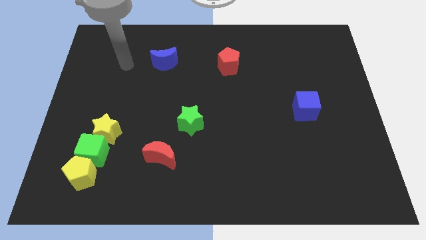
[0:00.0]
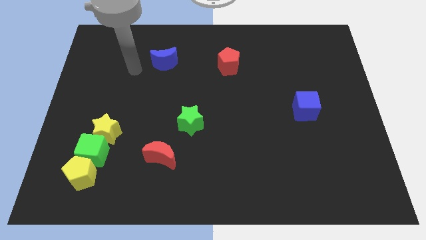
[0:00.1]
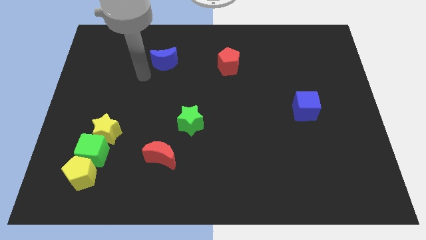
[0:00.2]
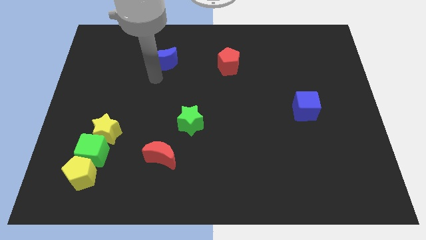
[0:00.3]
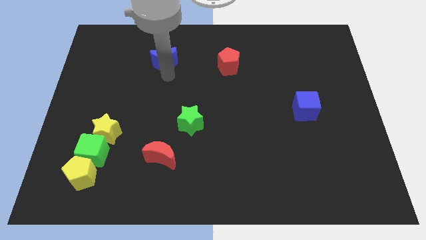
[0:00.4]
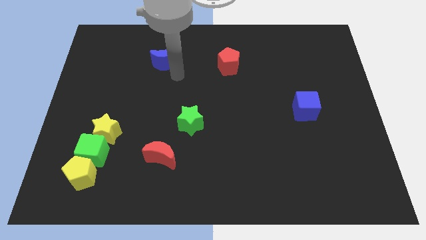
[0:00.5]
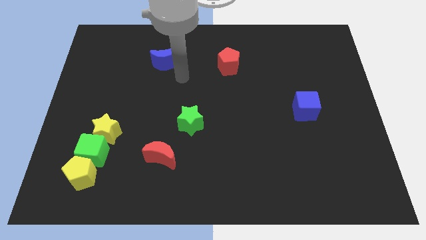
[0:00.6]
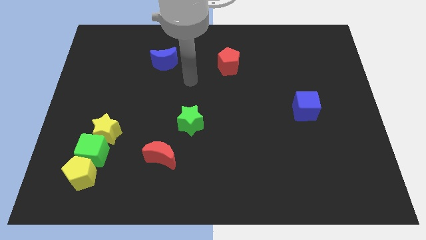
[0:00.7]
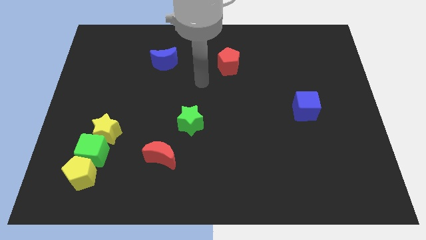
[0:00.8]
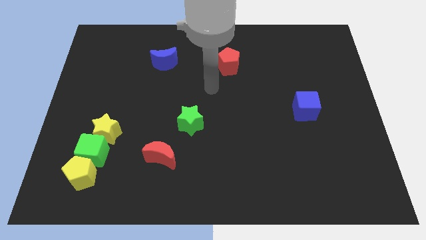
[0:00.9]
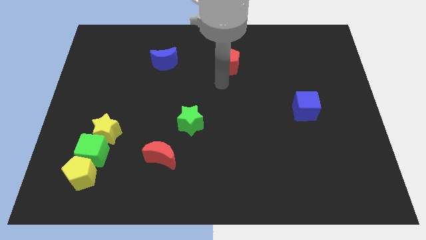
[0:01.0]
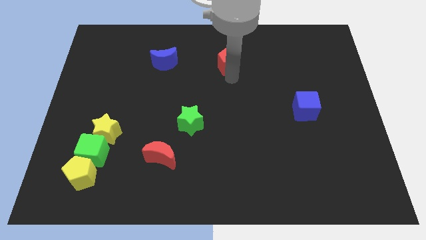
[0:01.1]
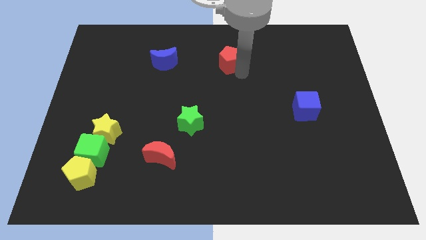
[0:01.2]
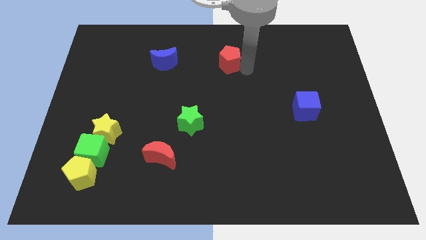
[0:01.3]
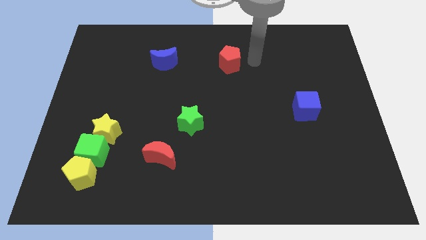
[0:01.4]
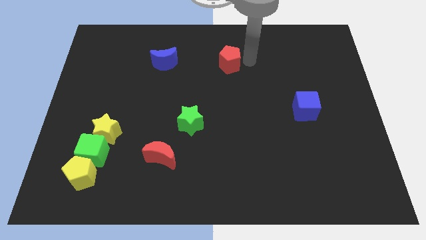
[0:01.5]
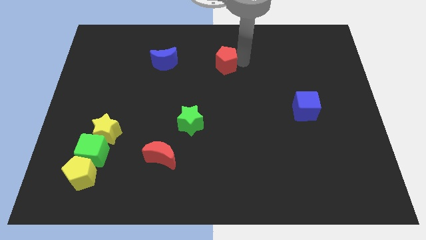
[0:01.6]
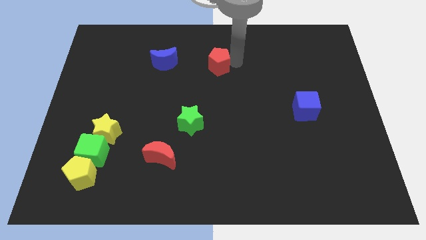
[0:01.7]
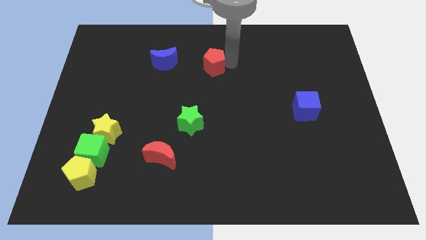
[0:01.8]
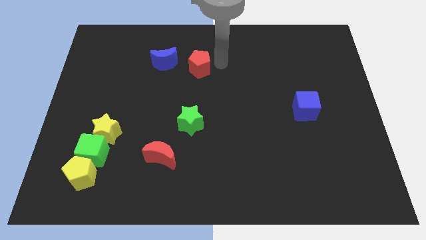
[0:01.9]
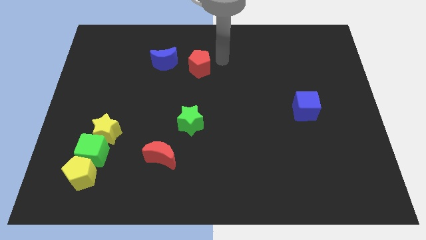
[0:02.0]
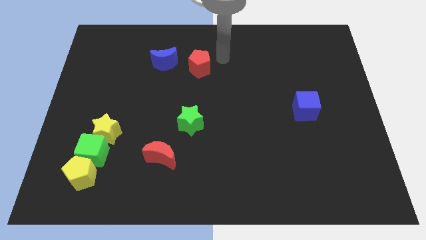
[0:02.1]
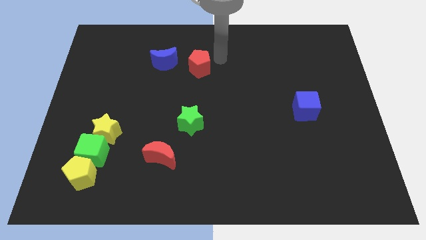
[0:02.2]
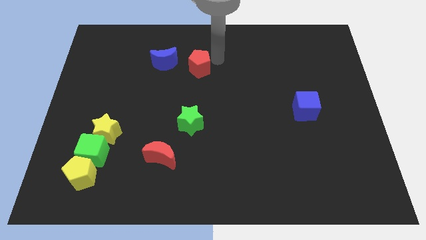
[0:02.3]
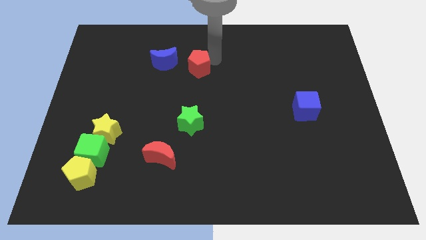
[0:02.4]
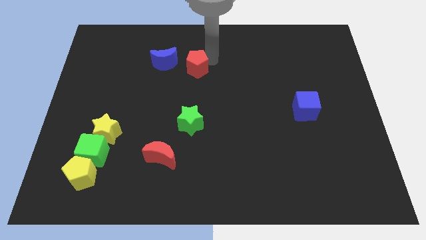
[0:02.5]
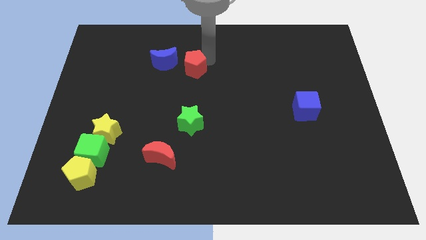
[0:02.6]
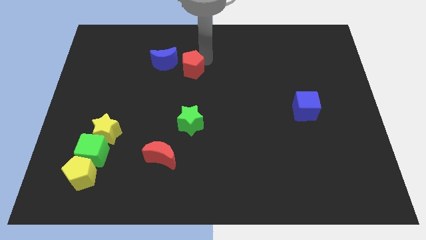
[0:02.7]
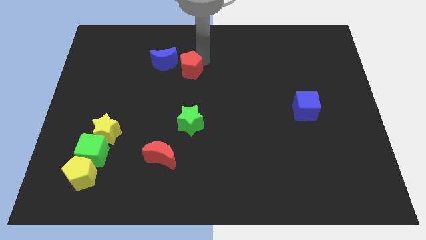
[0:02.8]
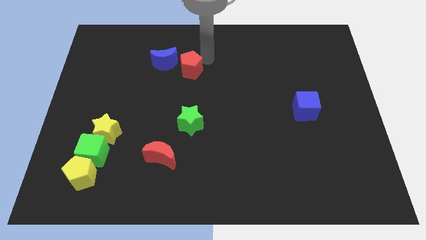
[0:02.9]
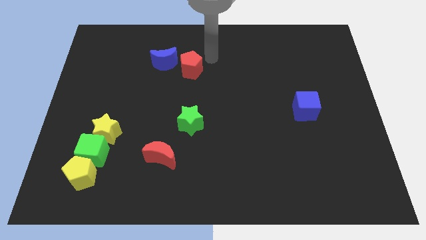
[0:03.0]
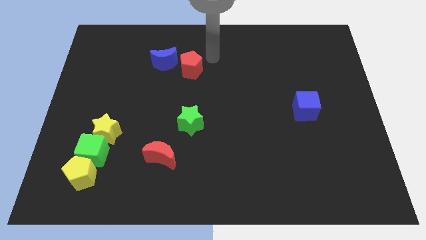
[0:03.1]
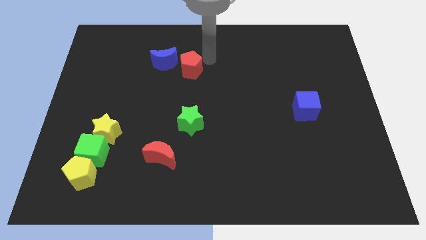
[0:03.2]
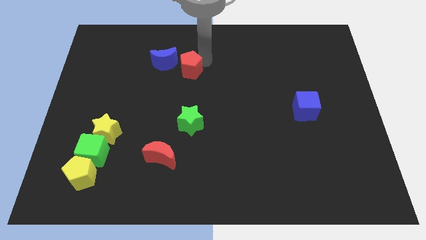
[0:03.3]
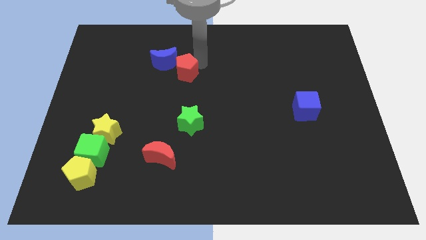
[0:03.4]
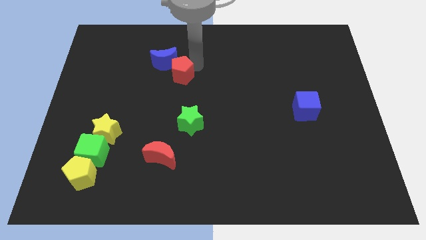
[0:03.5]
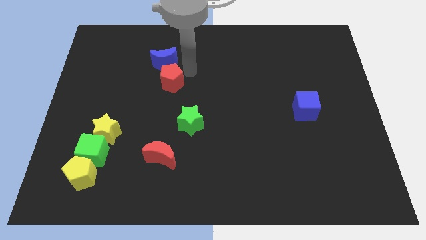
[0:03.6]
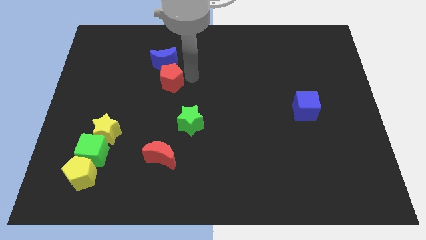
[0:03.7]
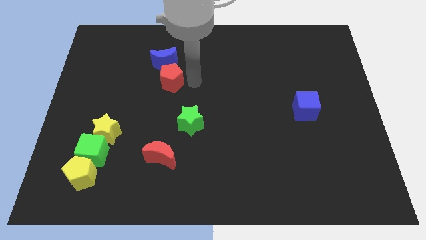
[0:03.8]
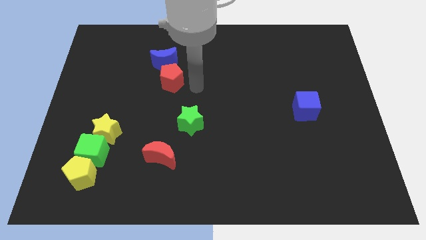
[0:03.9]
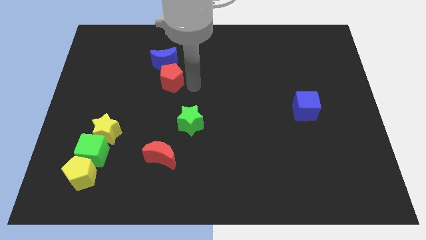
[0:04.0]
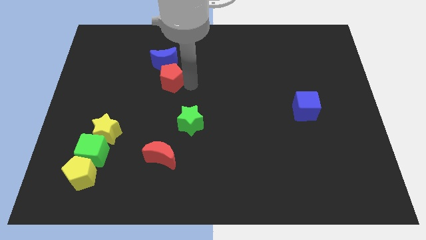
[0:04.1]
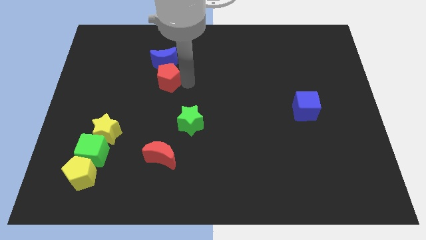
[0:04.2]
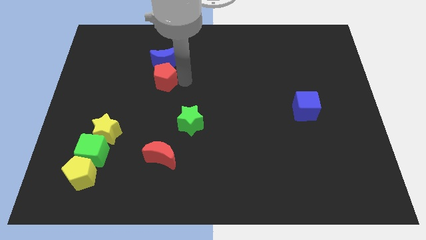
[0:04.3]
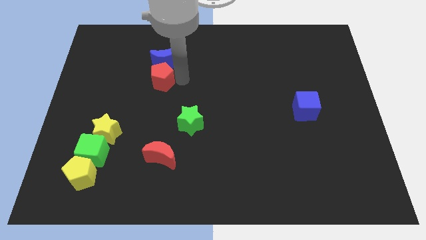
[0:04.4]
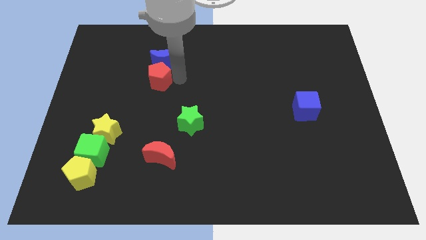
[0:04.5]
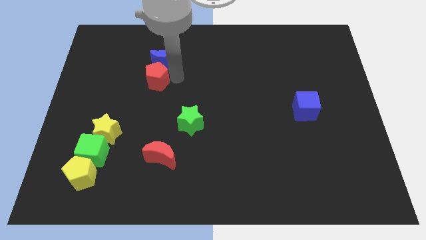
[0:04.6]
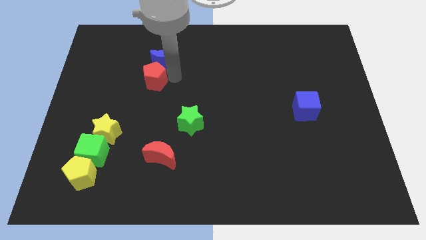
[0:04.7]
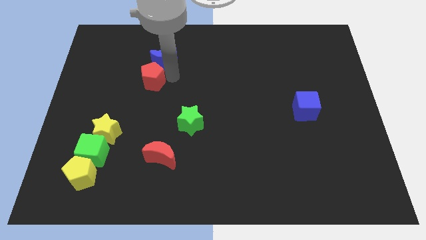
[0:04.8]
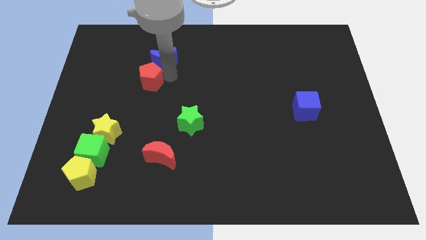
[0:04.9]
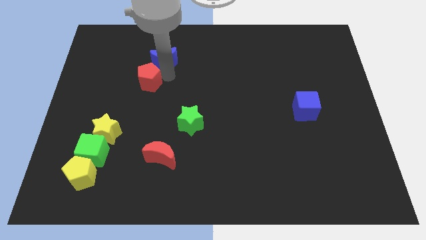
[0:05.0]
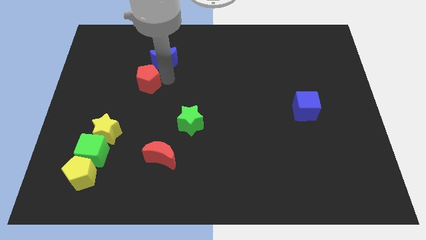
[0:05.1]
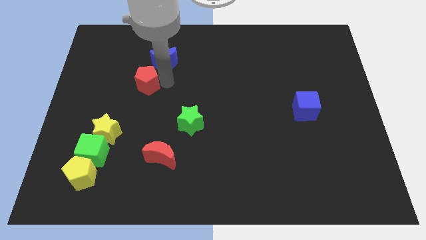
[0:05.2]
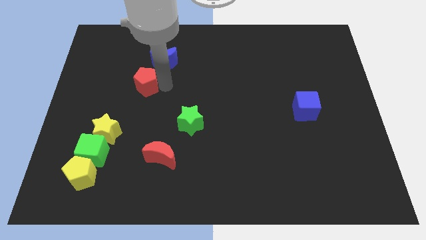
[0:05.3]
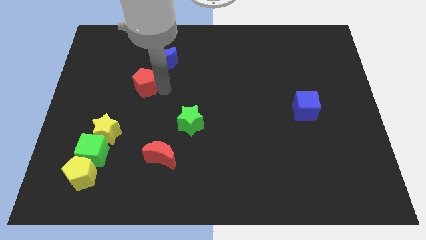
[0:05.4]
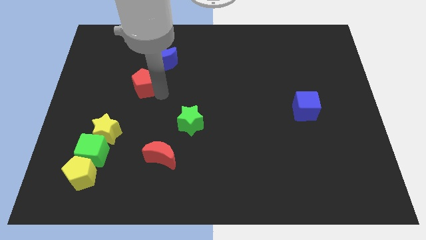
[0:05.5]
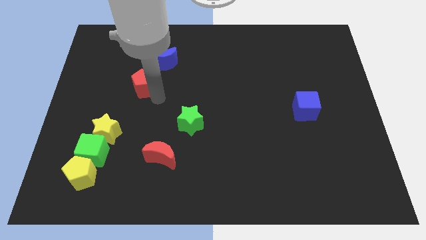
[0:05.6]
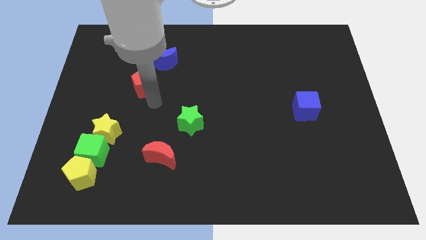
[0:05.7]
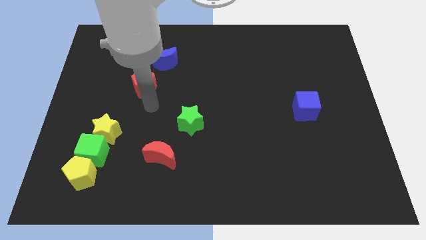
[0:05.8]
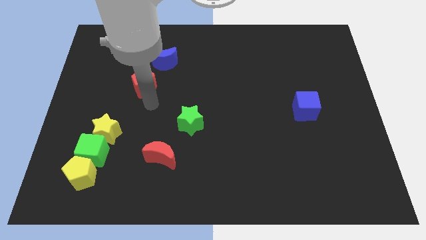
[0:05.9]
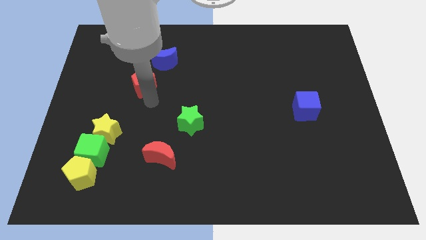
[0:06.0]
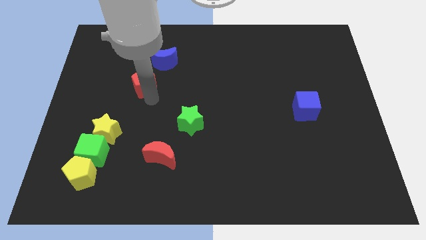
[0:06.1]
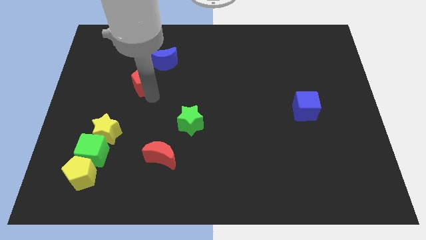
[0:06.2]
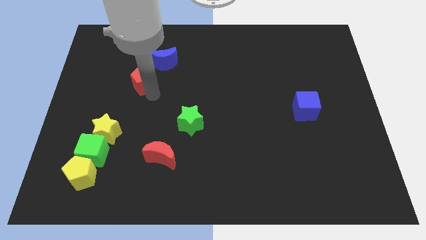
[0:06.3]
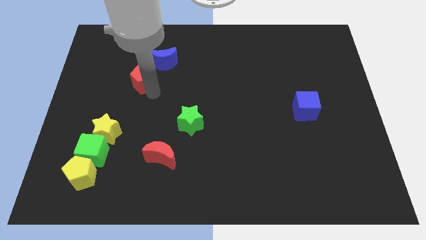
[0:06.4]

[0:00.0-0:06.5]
push the red pentagon left

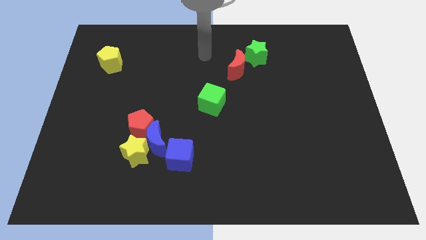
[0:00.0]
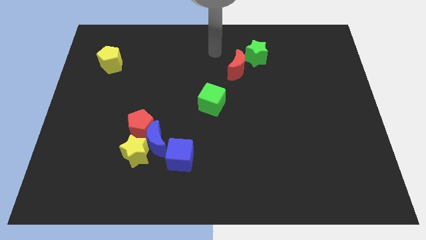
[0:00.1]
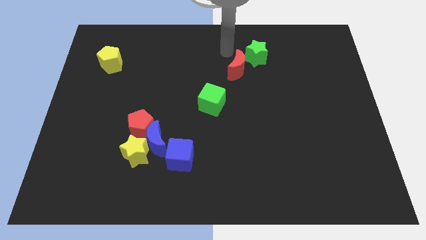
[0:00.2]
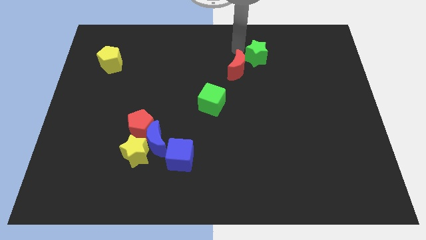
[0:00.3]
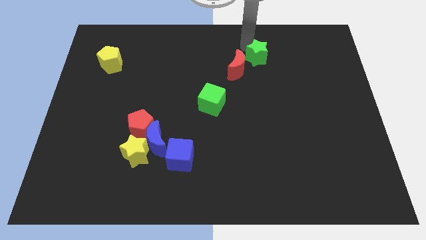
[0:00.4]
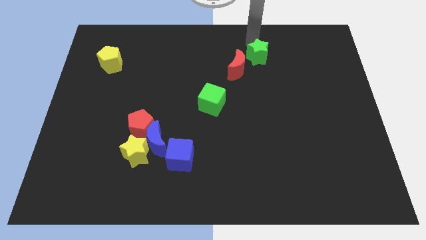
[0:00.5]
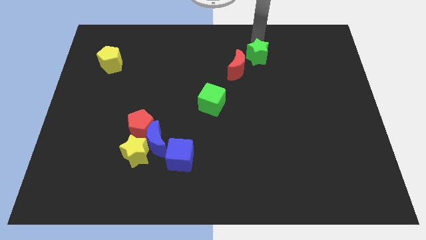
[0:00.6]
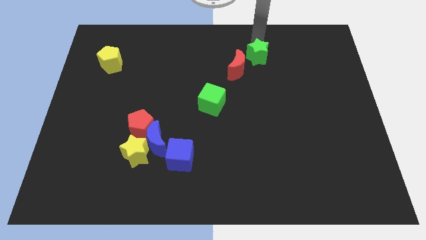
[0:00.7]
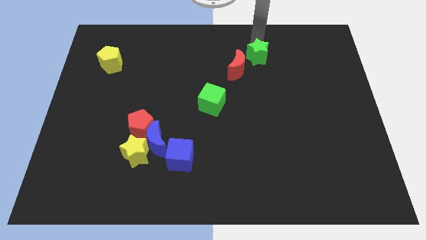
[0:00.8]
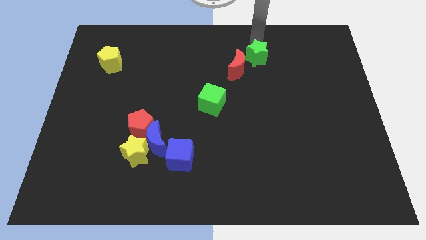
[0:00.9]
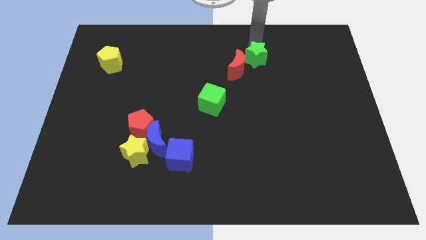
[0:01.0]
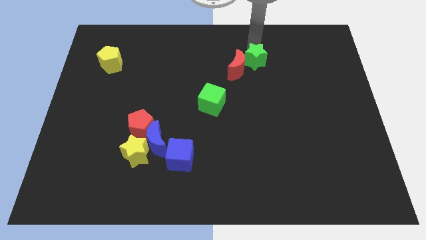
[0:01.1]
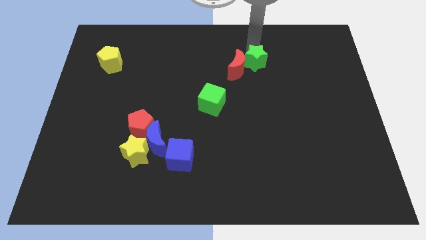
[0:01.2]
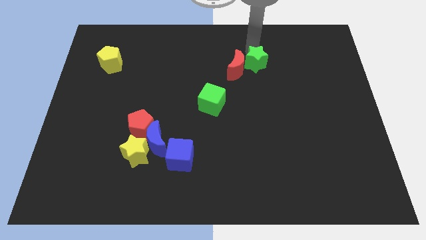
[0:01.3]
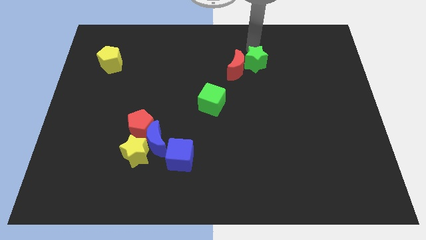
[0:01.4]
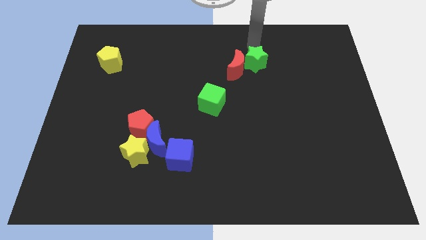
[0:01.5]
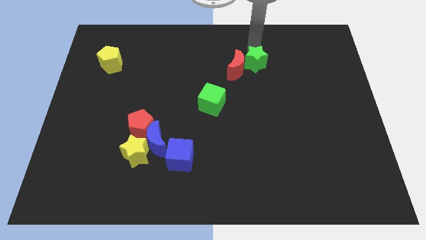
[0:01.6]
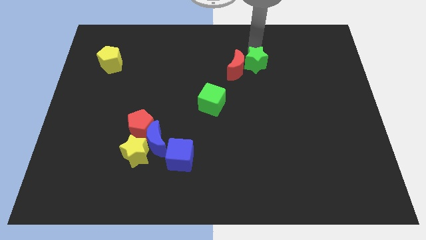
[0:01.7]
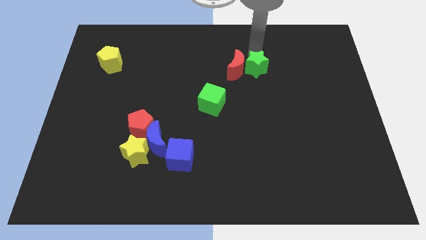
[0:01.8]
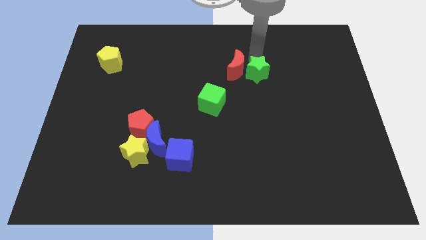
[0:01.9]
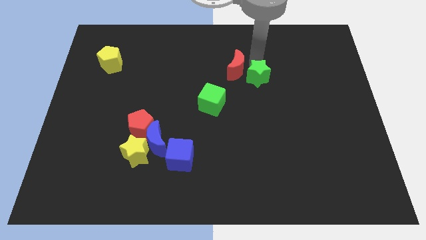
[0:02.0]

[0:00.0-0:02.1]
slightly slide the green star downwards
